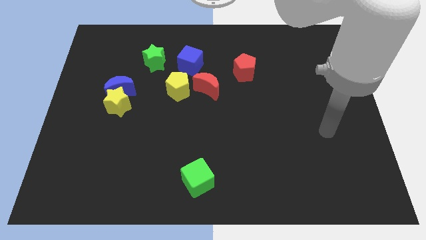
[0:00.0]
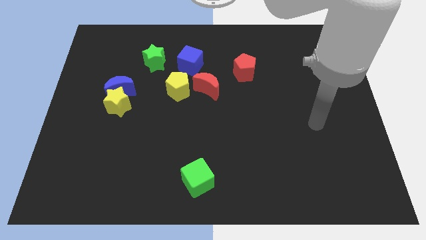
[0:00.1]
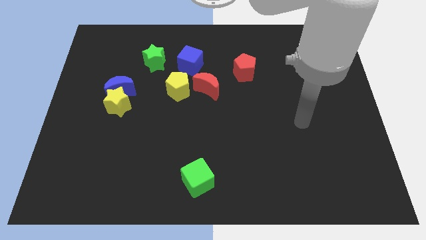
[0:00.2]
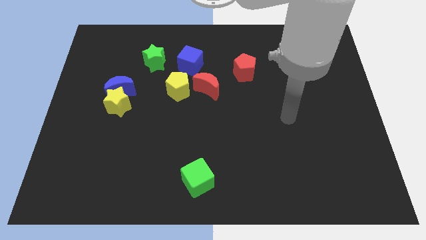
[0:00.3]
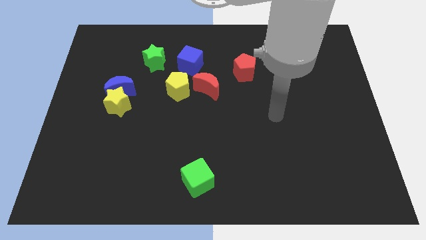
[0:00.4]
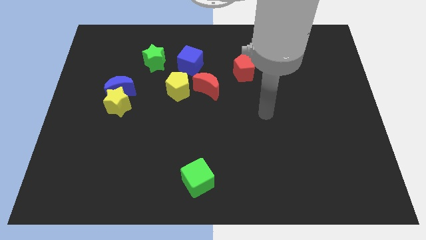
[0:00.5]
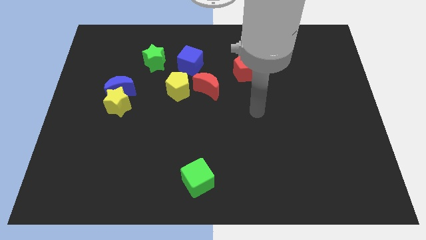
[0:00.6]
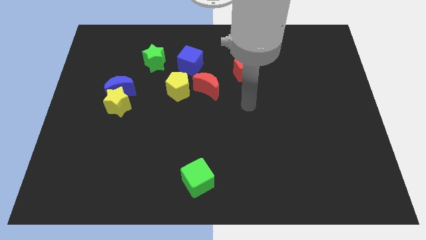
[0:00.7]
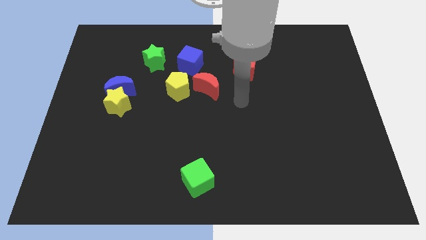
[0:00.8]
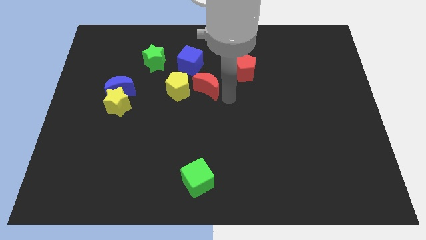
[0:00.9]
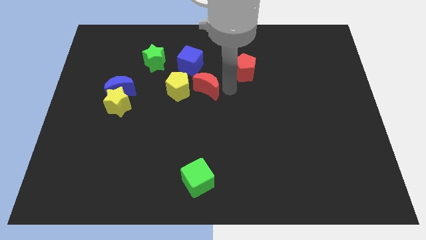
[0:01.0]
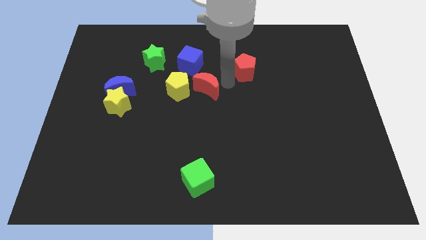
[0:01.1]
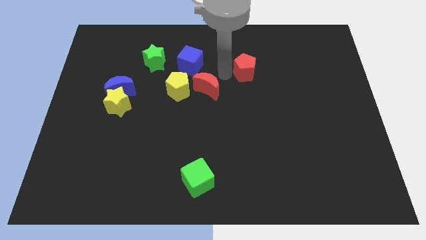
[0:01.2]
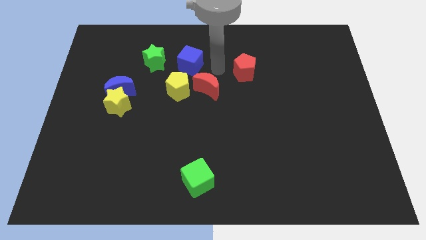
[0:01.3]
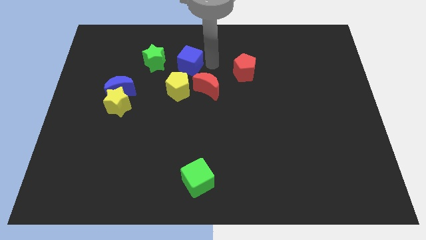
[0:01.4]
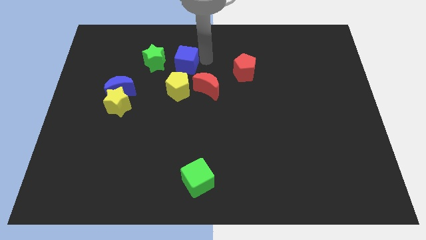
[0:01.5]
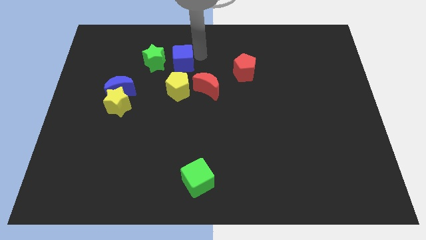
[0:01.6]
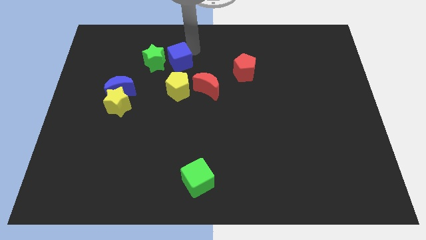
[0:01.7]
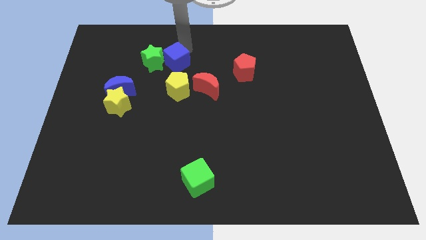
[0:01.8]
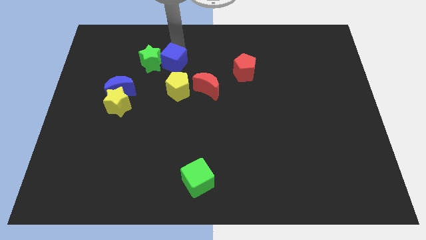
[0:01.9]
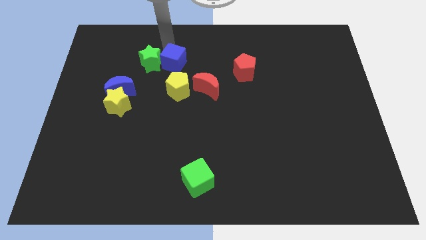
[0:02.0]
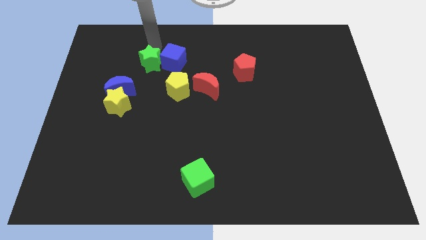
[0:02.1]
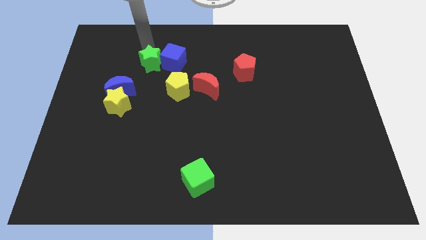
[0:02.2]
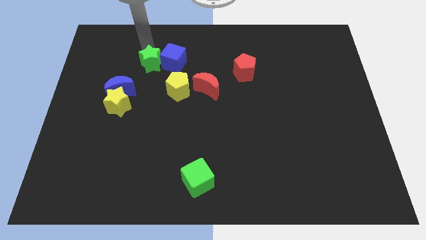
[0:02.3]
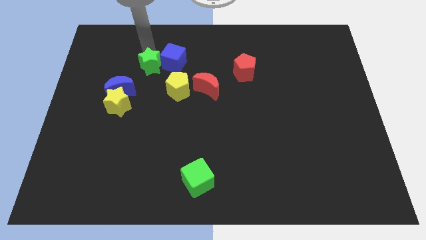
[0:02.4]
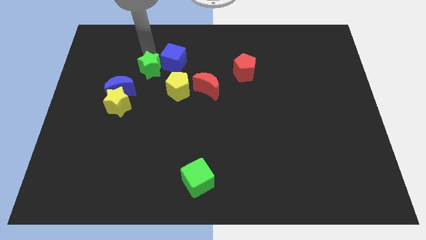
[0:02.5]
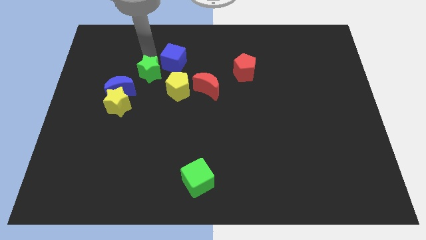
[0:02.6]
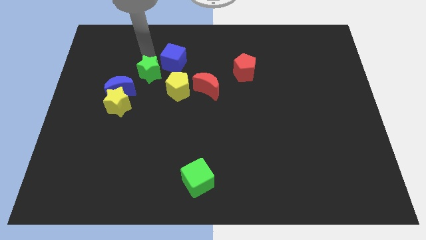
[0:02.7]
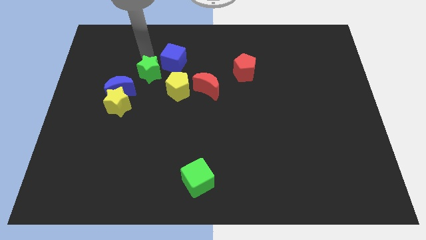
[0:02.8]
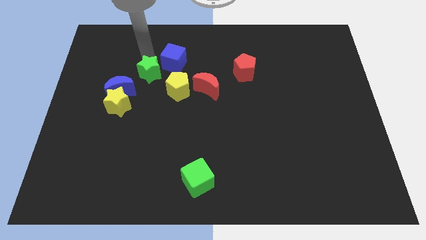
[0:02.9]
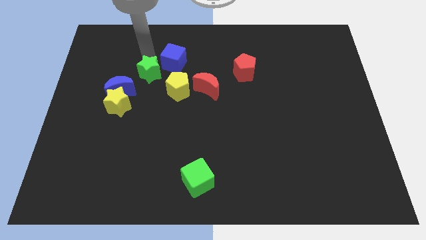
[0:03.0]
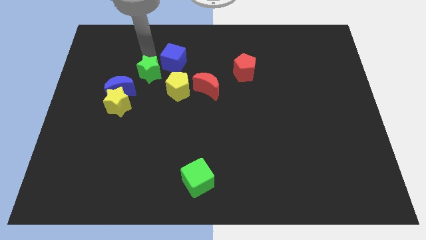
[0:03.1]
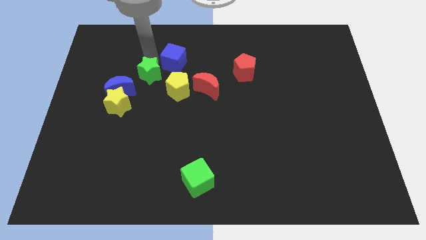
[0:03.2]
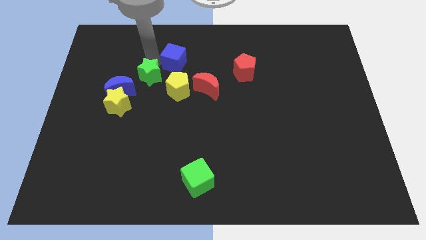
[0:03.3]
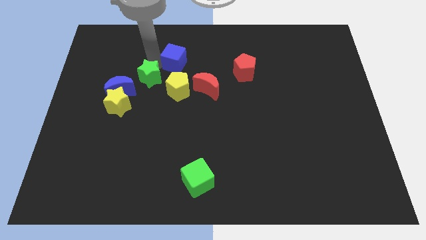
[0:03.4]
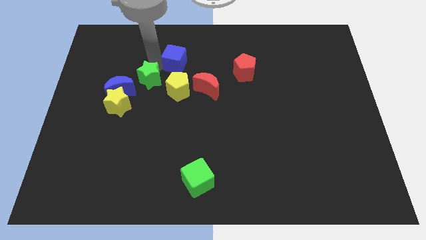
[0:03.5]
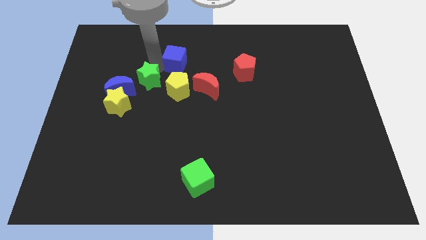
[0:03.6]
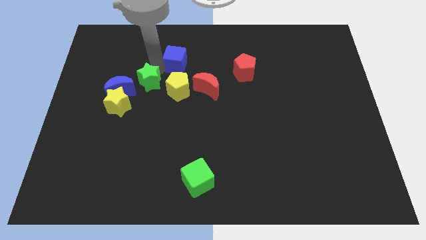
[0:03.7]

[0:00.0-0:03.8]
slide the green star downwards somewhat

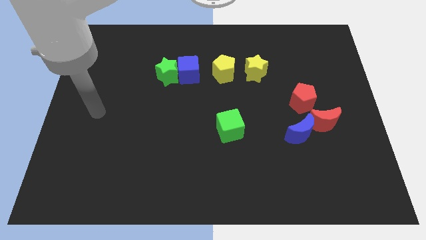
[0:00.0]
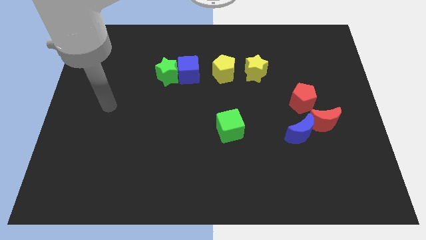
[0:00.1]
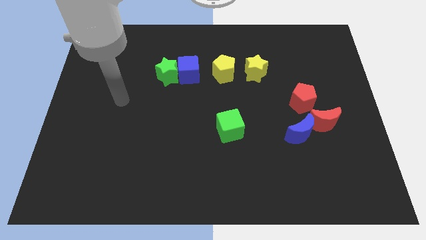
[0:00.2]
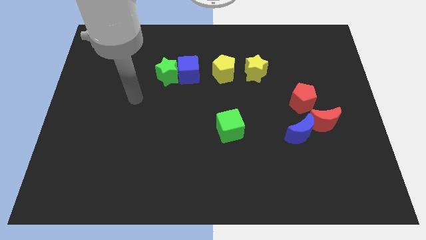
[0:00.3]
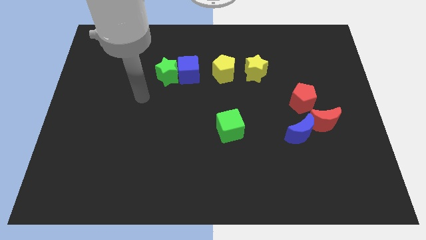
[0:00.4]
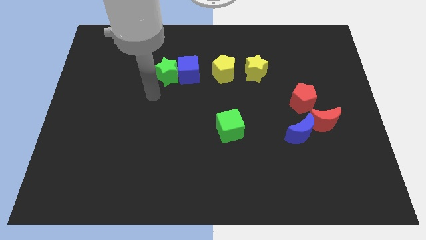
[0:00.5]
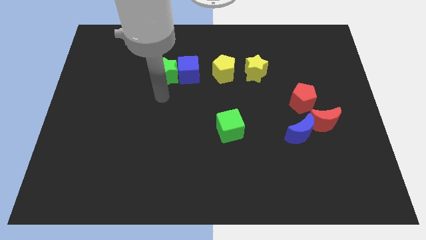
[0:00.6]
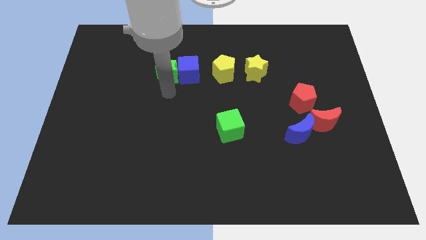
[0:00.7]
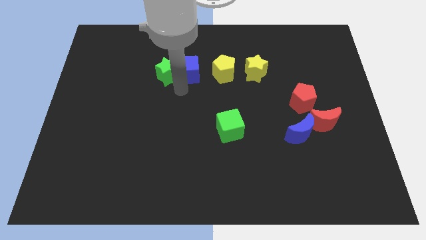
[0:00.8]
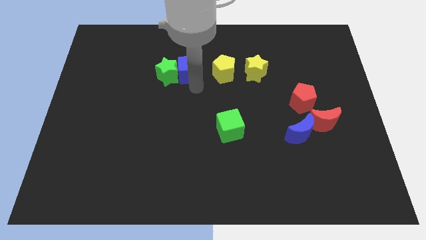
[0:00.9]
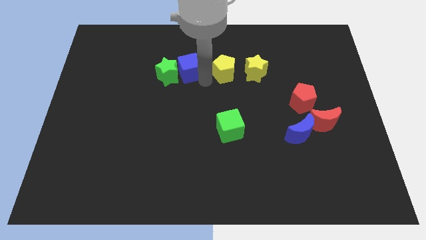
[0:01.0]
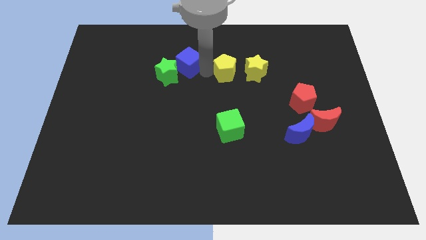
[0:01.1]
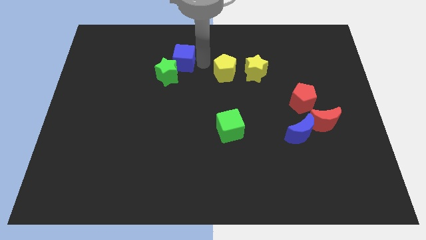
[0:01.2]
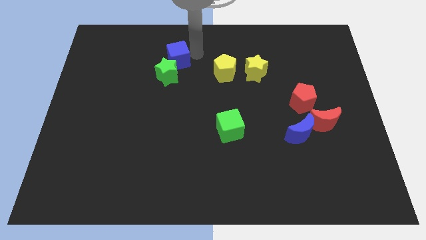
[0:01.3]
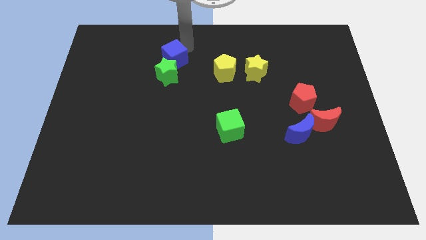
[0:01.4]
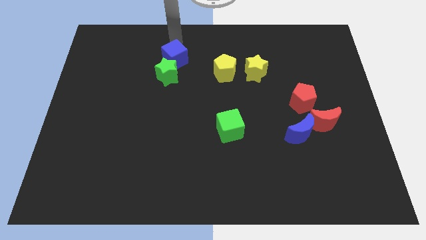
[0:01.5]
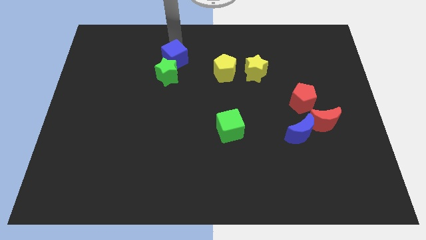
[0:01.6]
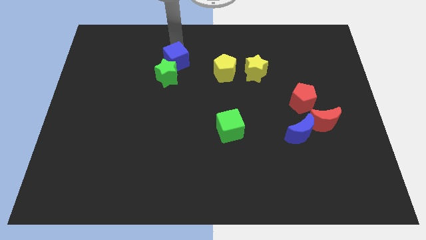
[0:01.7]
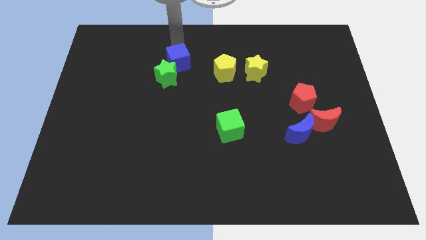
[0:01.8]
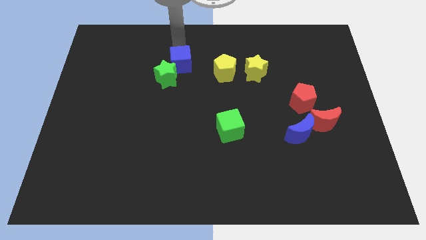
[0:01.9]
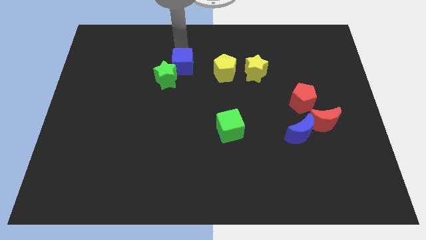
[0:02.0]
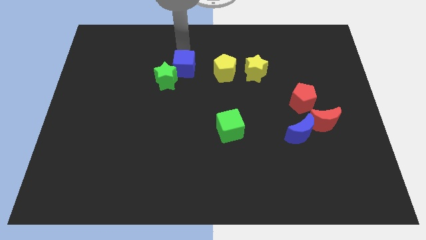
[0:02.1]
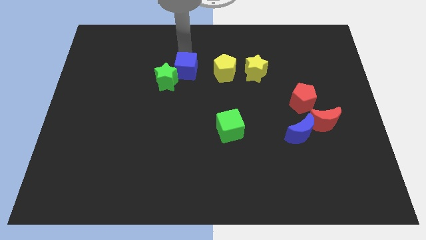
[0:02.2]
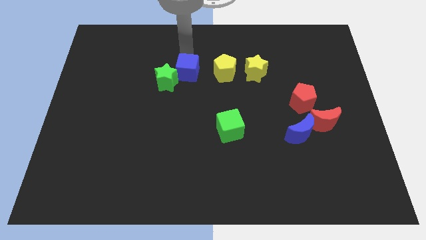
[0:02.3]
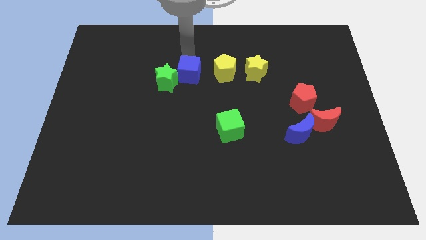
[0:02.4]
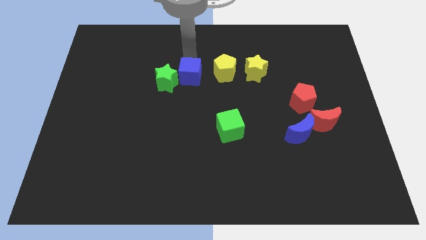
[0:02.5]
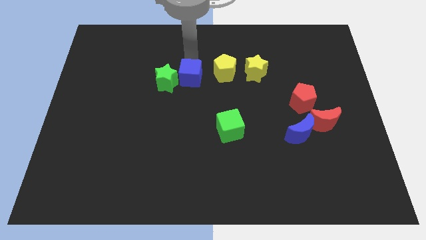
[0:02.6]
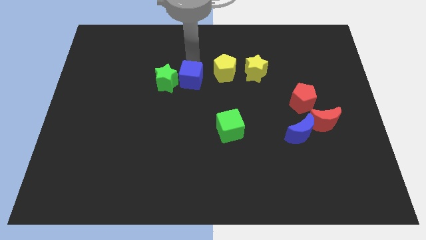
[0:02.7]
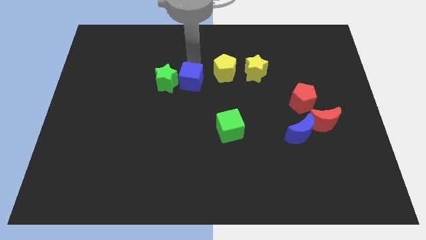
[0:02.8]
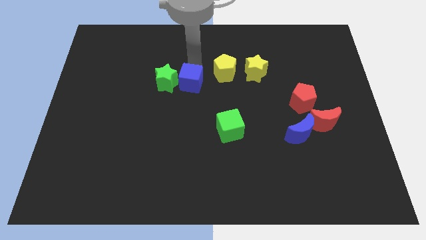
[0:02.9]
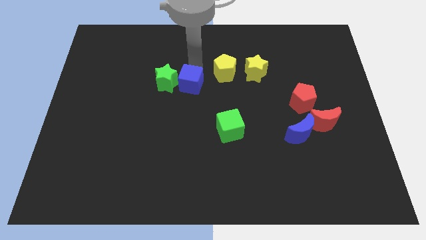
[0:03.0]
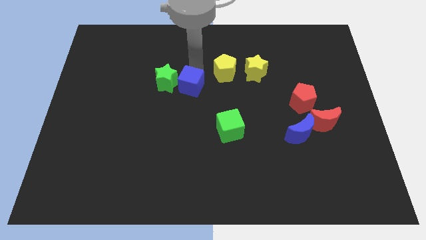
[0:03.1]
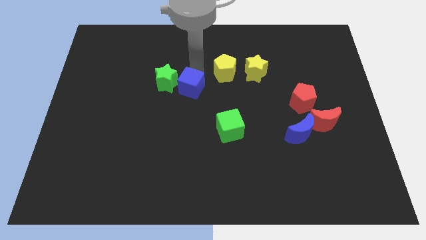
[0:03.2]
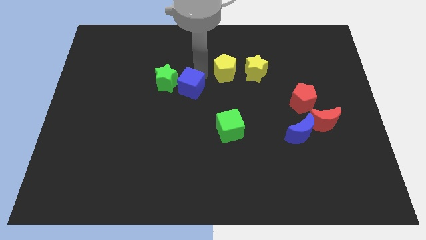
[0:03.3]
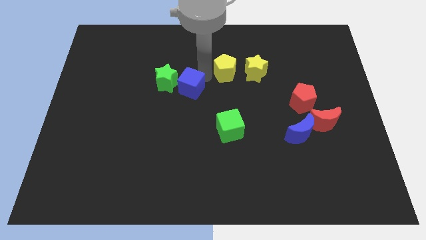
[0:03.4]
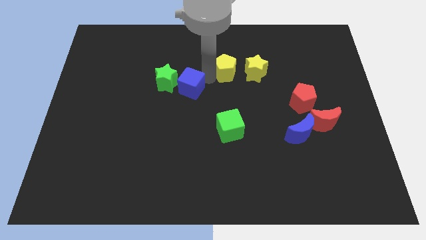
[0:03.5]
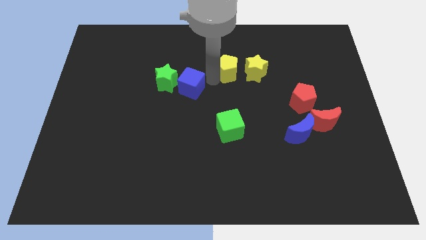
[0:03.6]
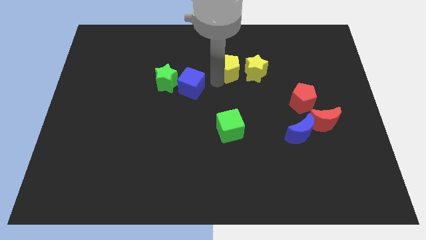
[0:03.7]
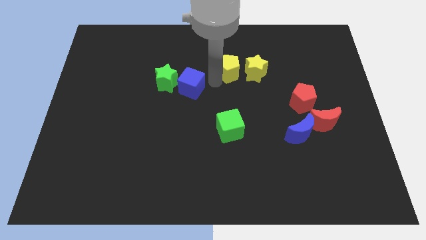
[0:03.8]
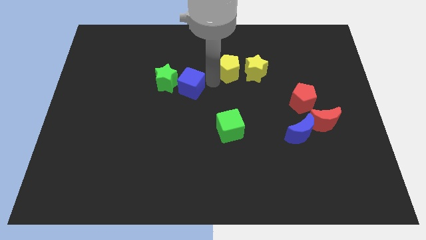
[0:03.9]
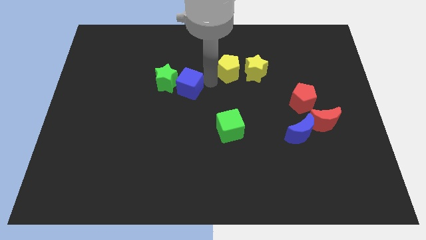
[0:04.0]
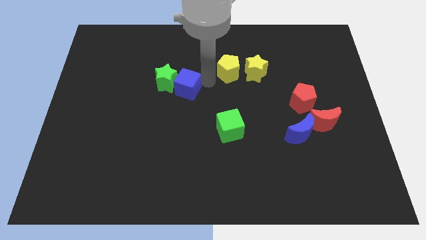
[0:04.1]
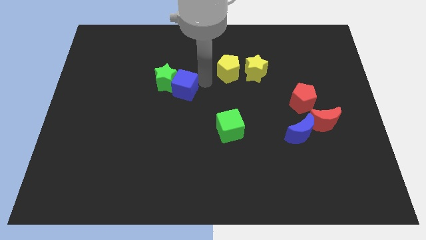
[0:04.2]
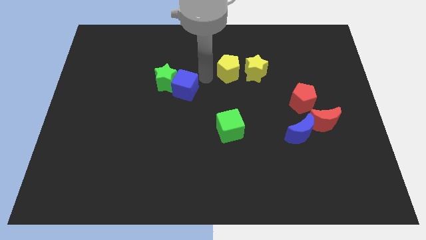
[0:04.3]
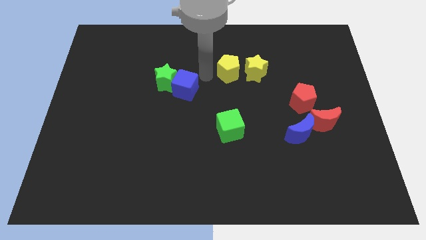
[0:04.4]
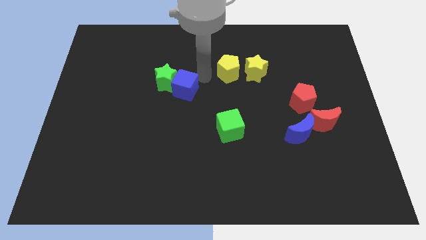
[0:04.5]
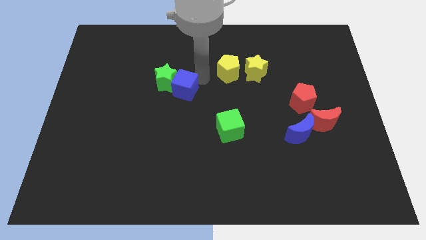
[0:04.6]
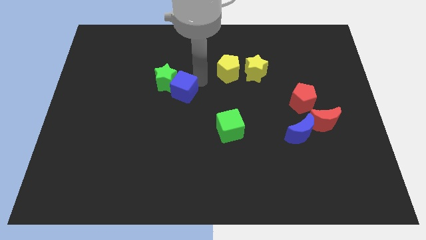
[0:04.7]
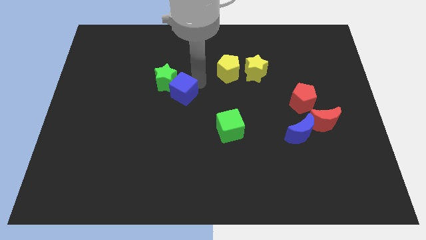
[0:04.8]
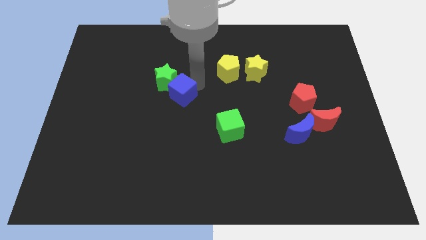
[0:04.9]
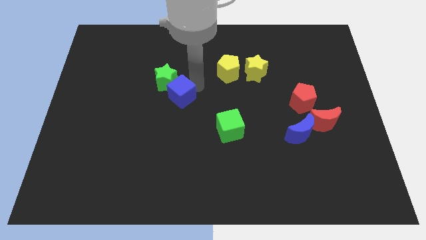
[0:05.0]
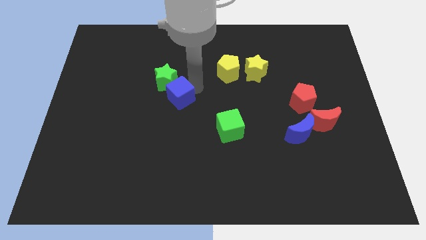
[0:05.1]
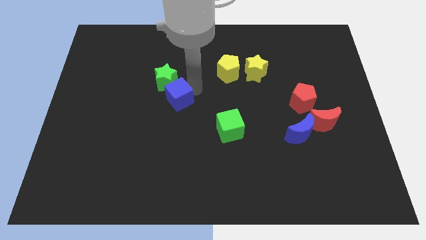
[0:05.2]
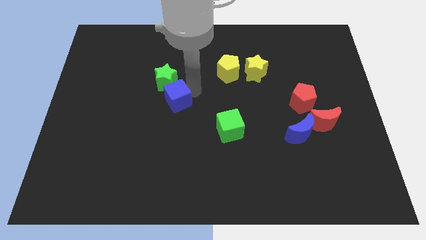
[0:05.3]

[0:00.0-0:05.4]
slightly move the blue cube downwards and to the left diagonally
